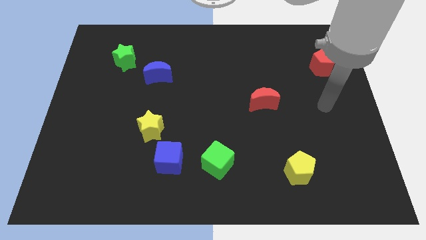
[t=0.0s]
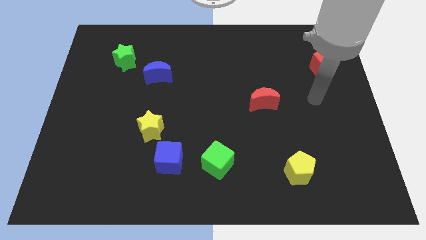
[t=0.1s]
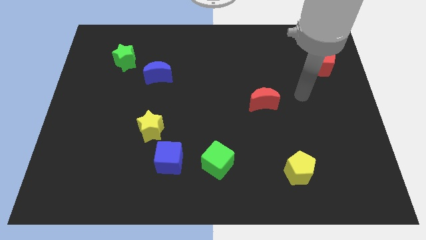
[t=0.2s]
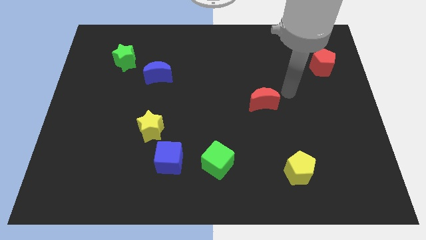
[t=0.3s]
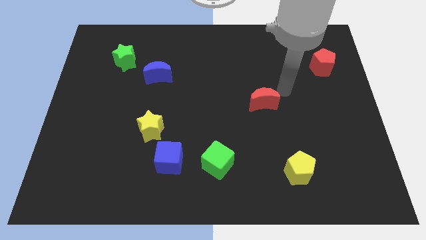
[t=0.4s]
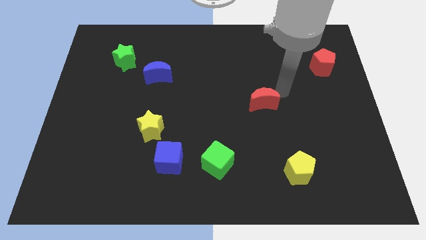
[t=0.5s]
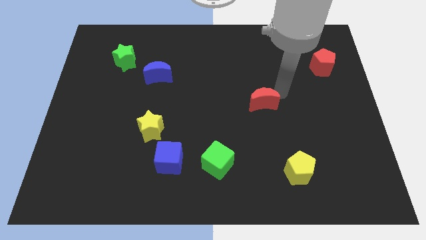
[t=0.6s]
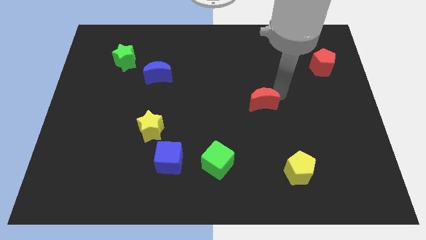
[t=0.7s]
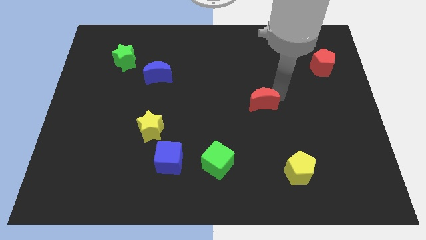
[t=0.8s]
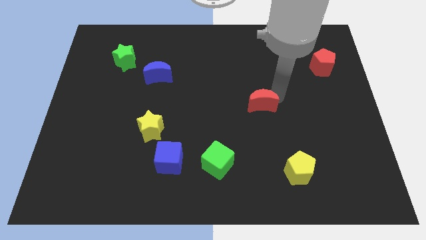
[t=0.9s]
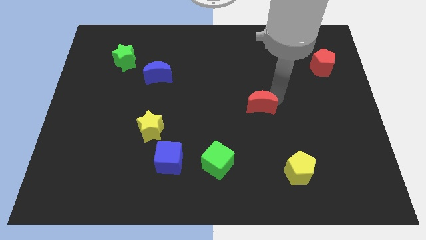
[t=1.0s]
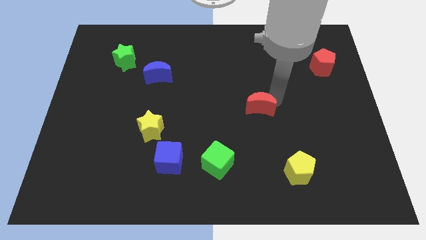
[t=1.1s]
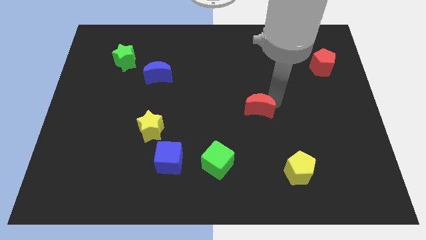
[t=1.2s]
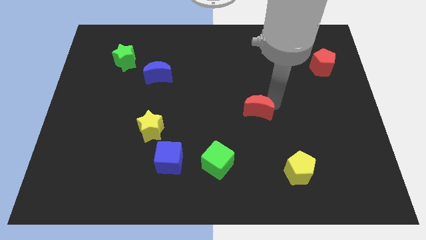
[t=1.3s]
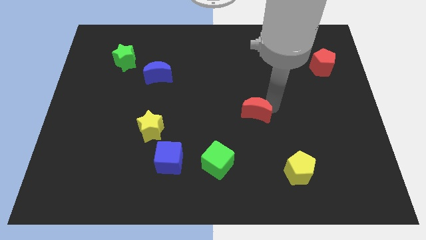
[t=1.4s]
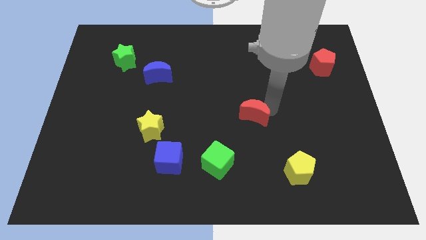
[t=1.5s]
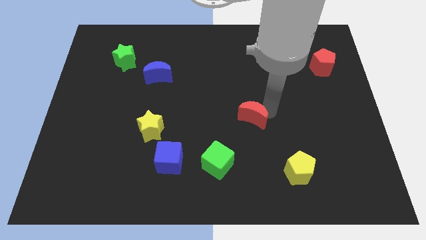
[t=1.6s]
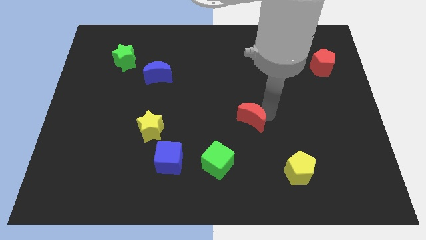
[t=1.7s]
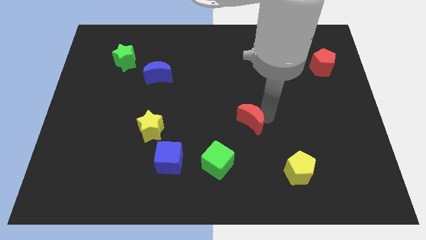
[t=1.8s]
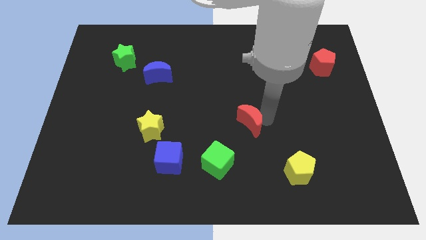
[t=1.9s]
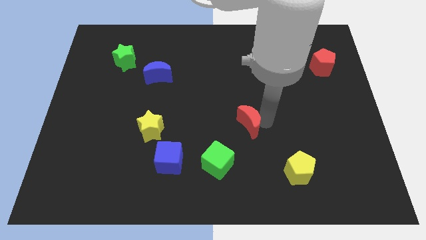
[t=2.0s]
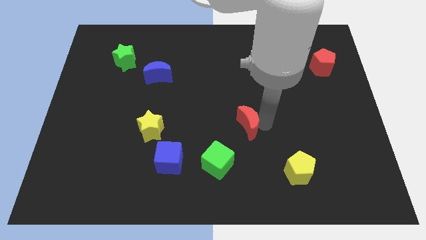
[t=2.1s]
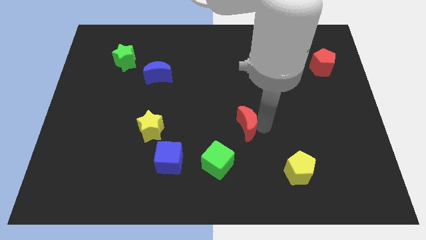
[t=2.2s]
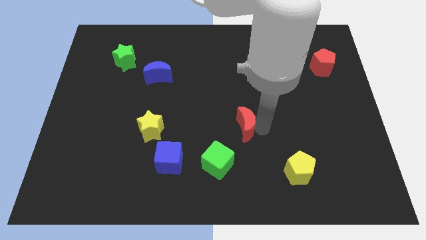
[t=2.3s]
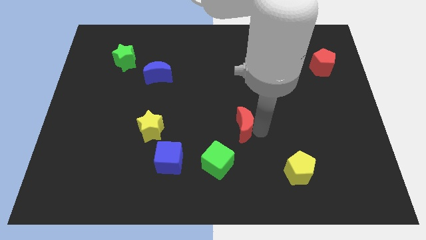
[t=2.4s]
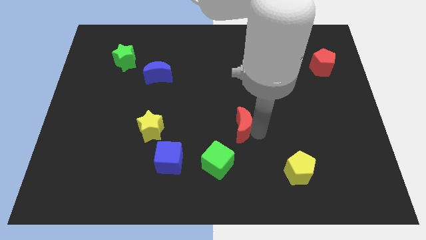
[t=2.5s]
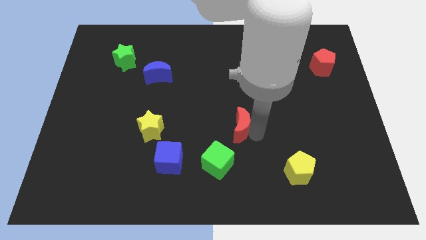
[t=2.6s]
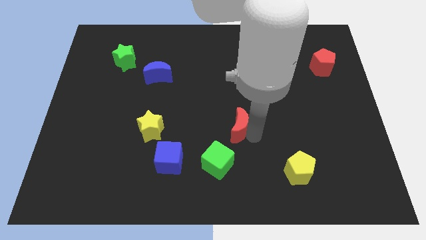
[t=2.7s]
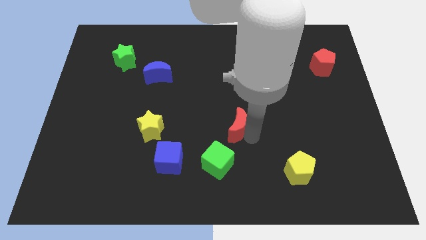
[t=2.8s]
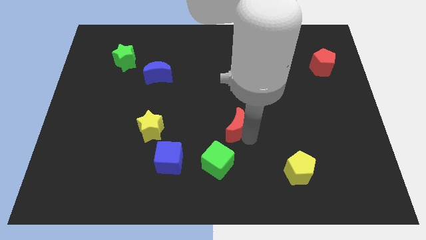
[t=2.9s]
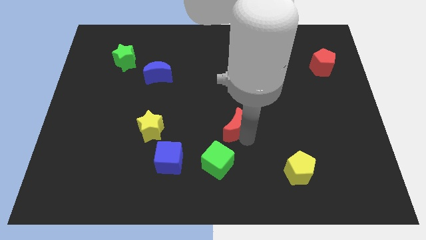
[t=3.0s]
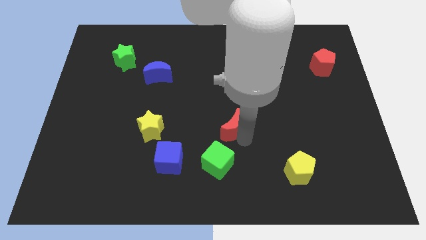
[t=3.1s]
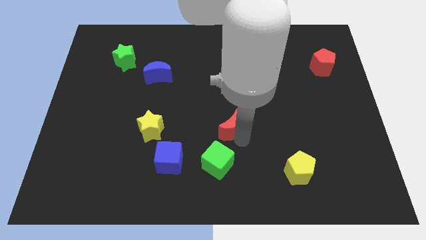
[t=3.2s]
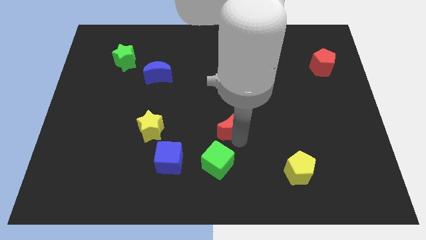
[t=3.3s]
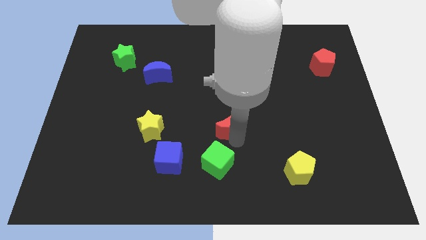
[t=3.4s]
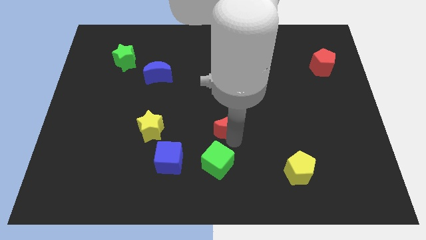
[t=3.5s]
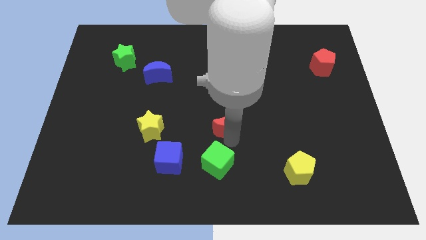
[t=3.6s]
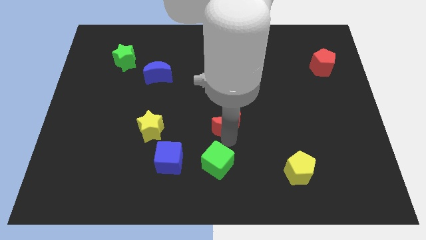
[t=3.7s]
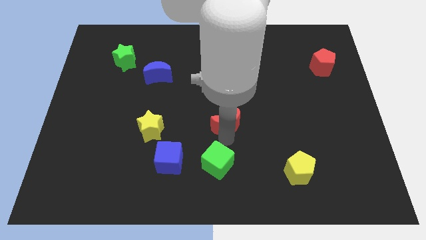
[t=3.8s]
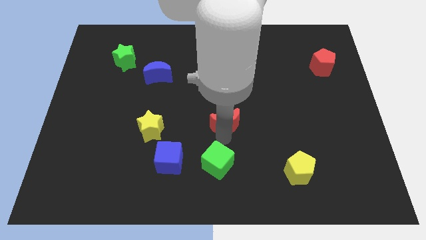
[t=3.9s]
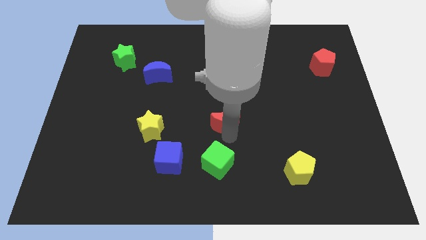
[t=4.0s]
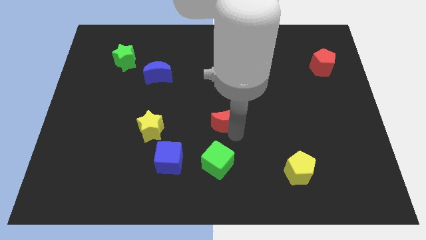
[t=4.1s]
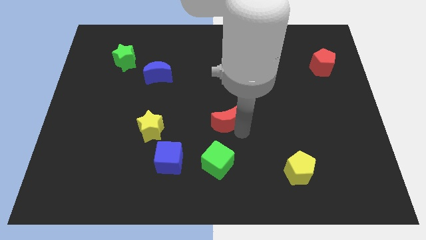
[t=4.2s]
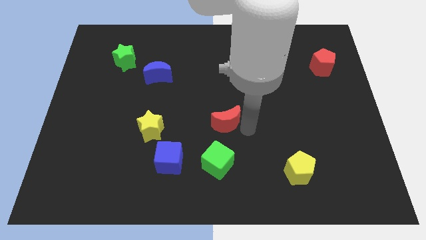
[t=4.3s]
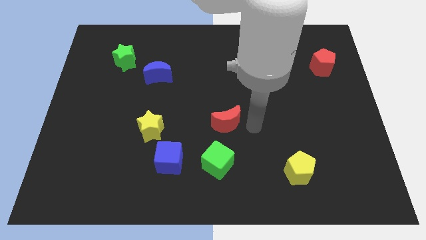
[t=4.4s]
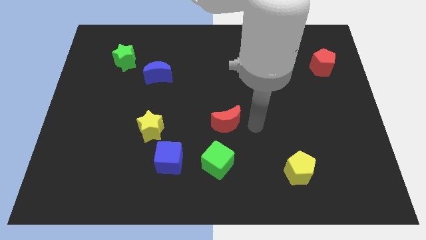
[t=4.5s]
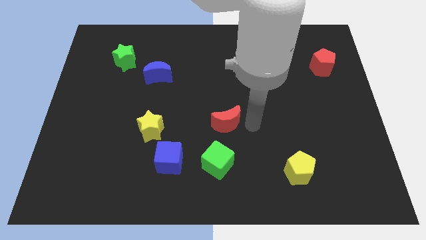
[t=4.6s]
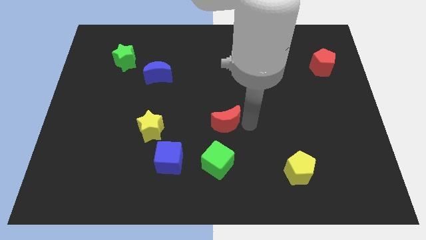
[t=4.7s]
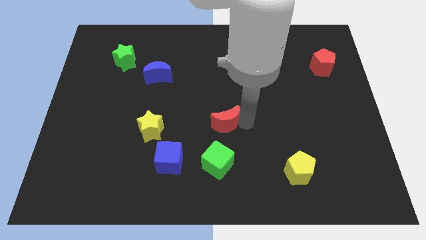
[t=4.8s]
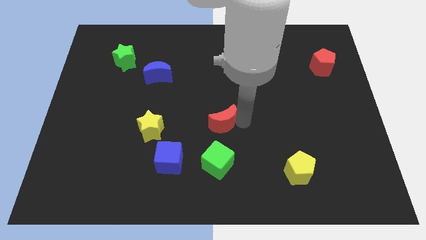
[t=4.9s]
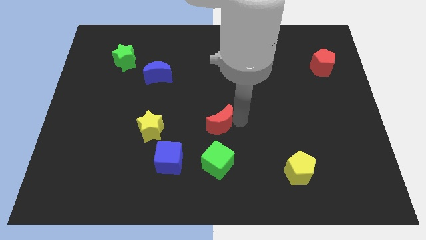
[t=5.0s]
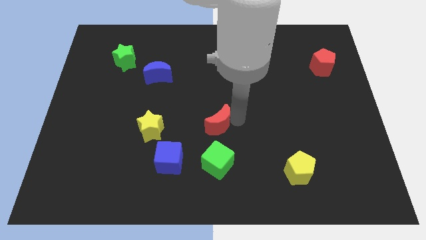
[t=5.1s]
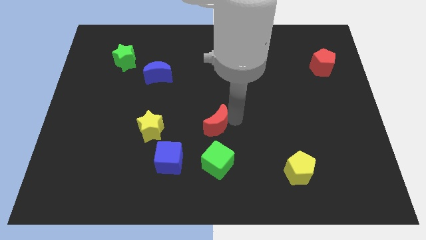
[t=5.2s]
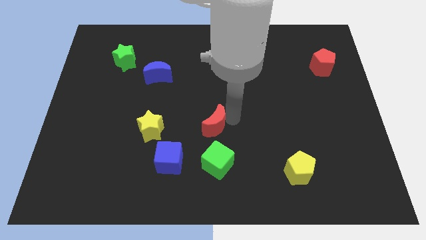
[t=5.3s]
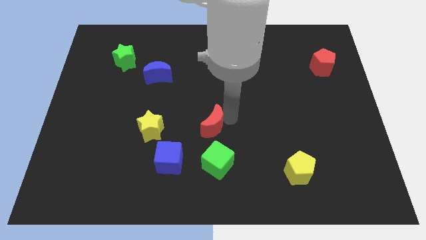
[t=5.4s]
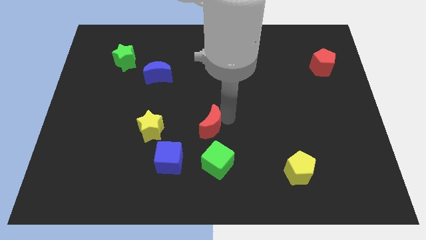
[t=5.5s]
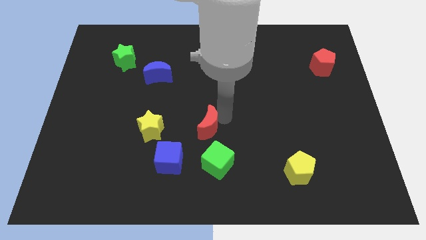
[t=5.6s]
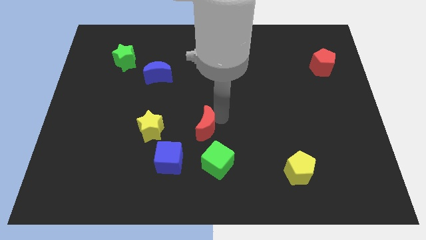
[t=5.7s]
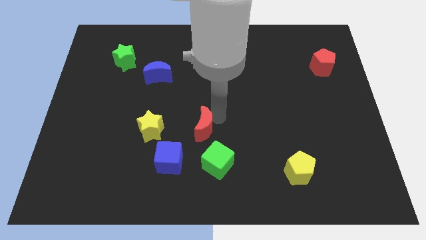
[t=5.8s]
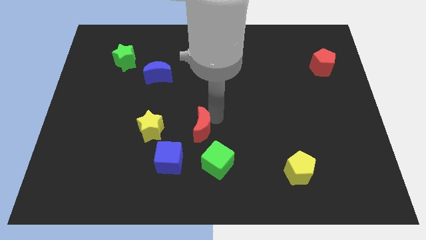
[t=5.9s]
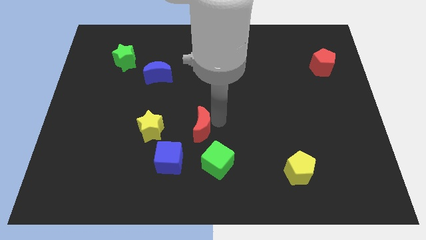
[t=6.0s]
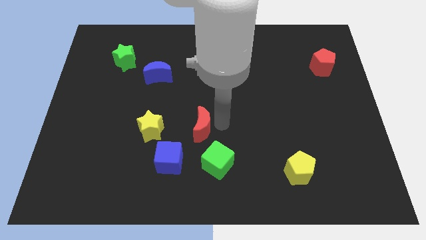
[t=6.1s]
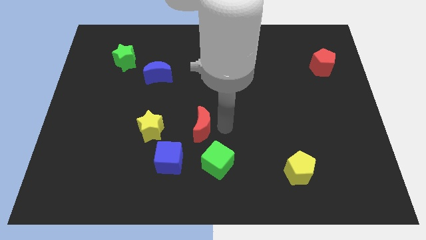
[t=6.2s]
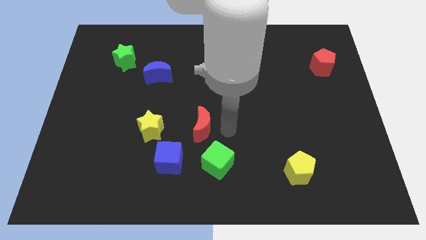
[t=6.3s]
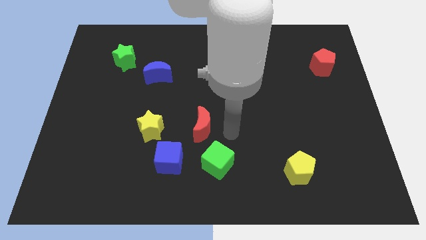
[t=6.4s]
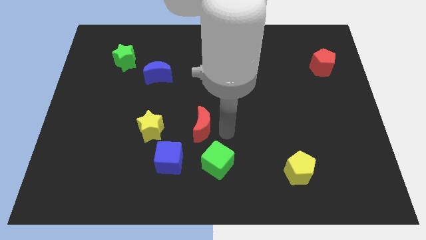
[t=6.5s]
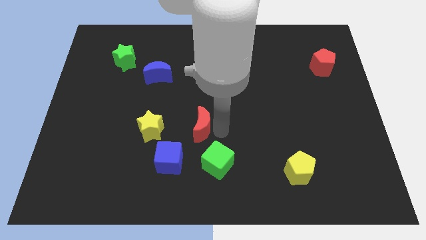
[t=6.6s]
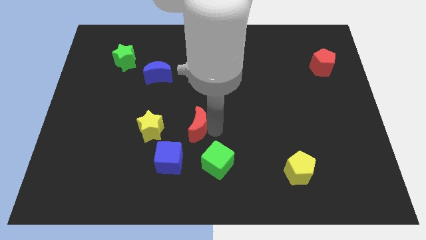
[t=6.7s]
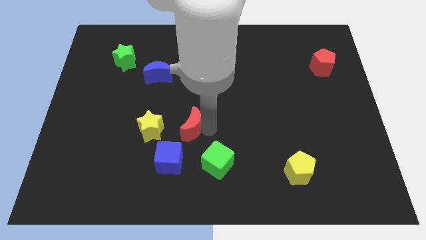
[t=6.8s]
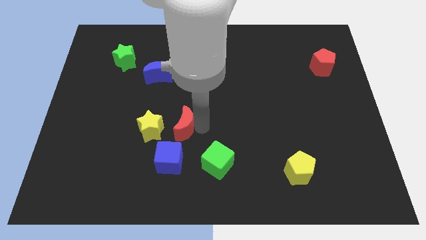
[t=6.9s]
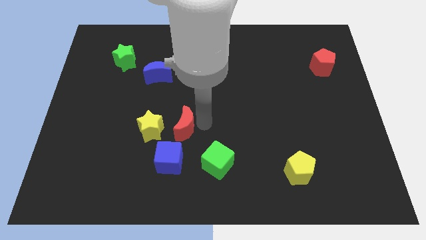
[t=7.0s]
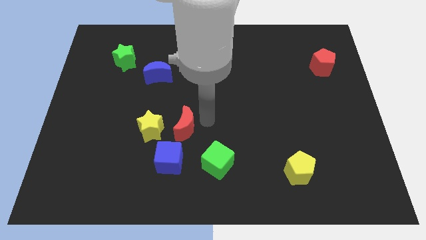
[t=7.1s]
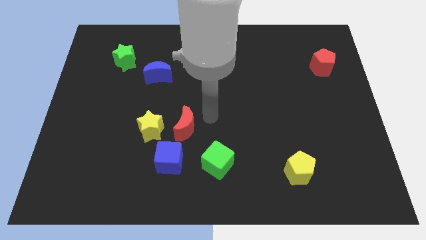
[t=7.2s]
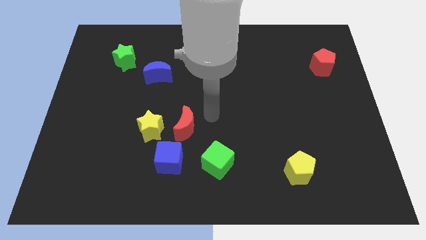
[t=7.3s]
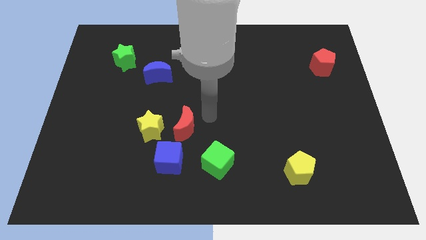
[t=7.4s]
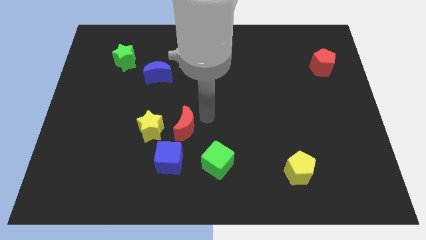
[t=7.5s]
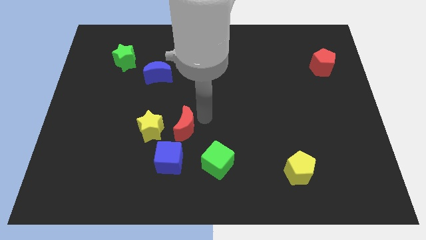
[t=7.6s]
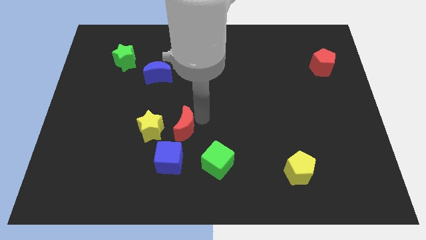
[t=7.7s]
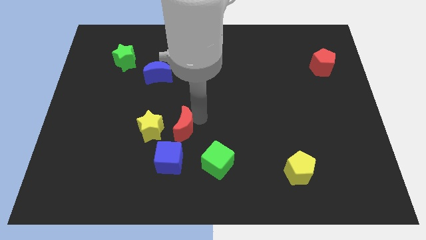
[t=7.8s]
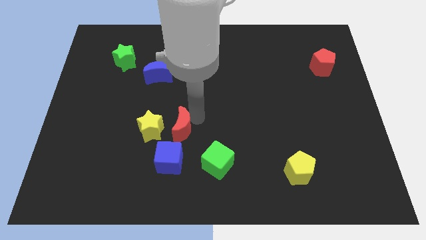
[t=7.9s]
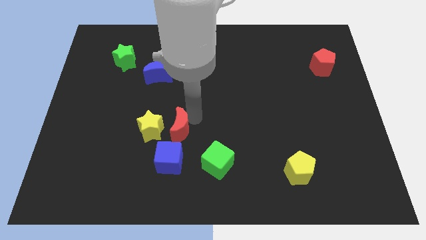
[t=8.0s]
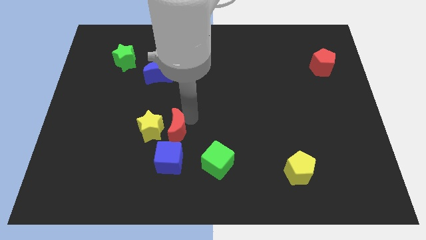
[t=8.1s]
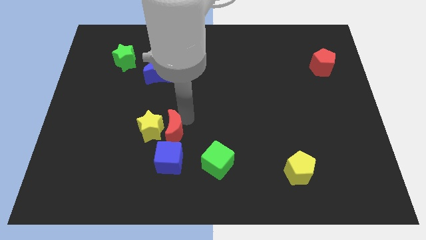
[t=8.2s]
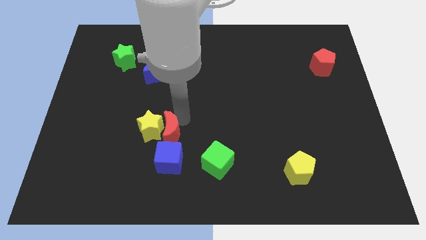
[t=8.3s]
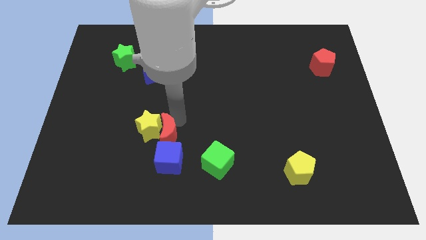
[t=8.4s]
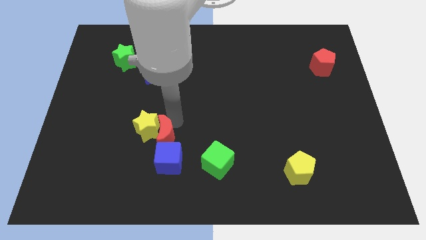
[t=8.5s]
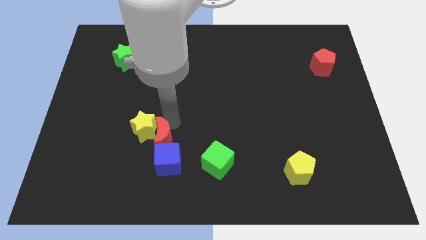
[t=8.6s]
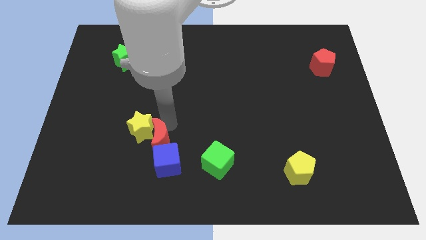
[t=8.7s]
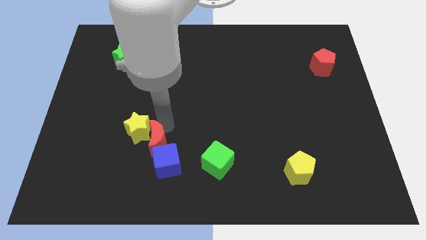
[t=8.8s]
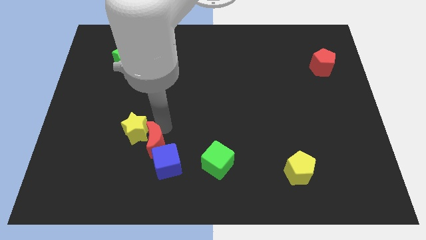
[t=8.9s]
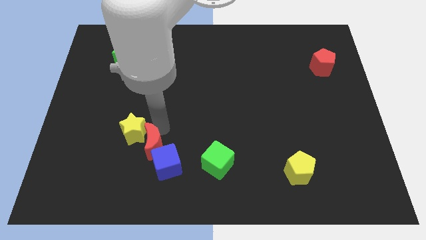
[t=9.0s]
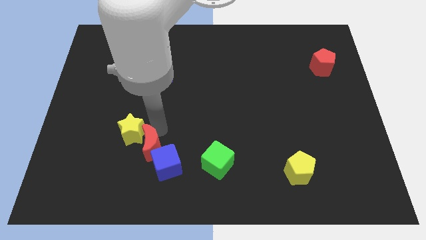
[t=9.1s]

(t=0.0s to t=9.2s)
put the red moon to the left side of the green cube
